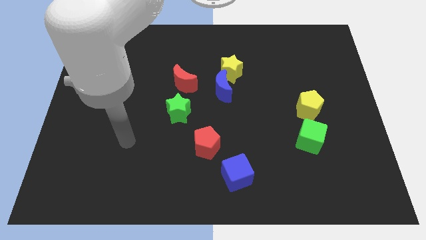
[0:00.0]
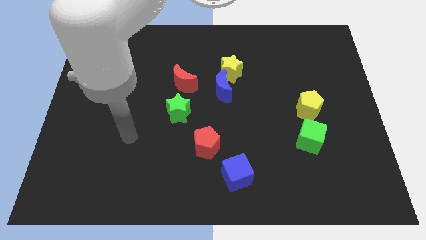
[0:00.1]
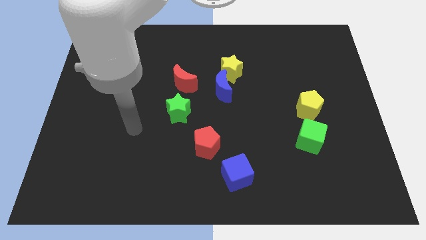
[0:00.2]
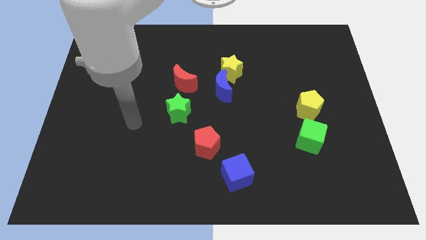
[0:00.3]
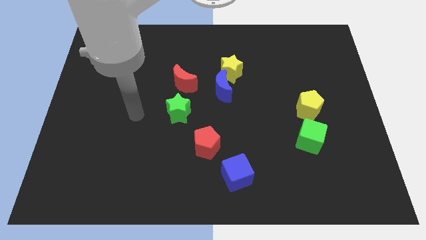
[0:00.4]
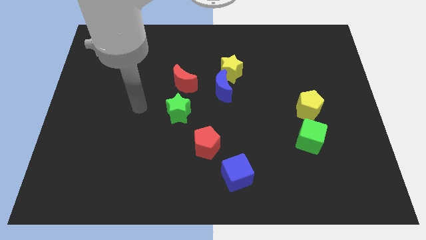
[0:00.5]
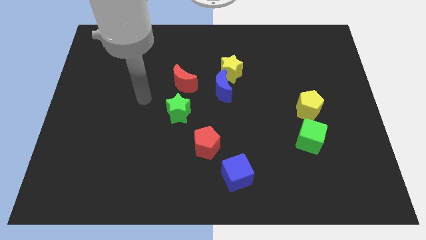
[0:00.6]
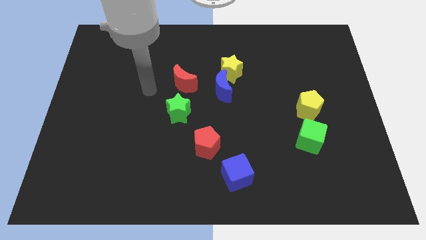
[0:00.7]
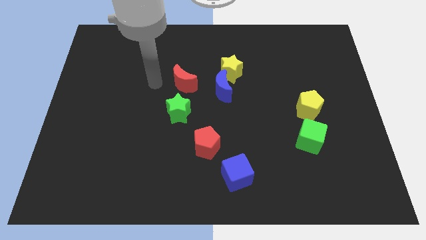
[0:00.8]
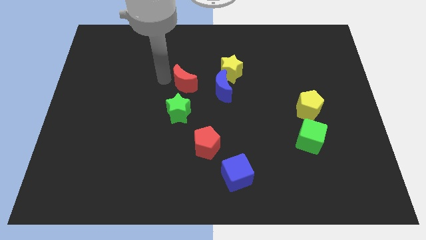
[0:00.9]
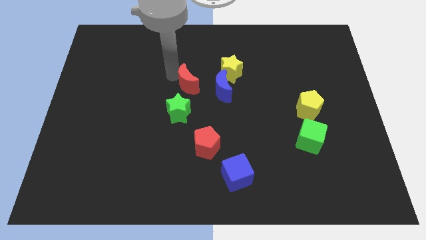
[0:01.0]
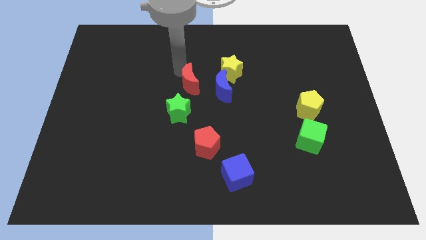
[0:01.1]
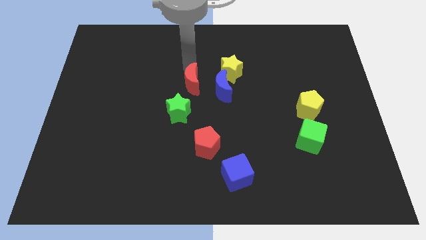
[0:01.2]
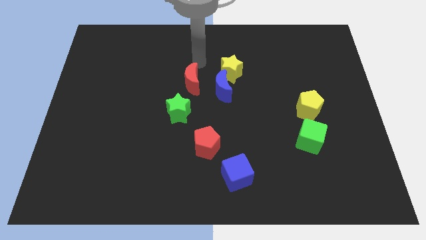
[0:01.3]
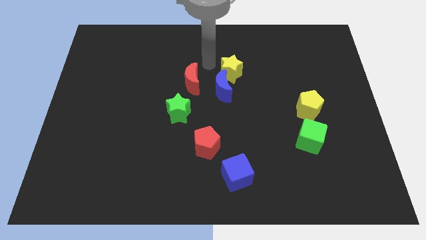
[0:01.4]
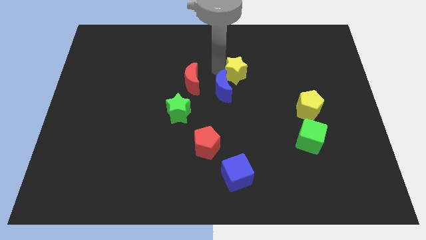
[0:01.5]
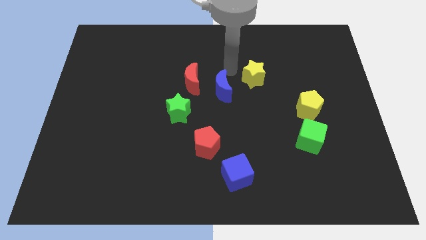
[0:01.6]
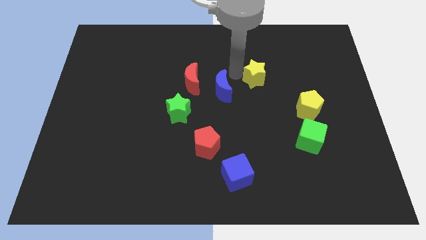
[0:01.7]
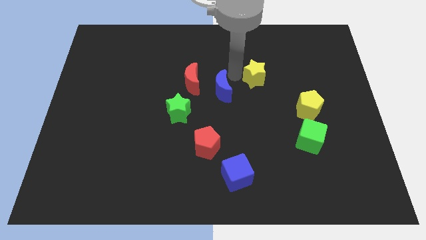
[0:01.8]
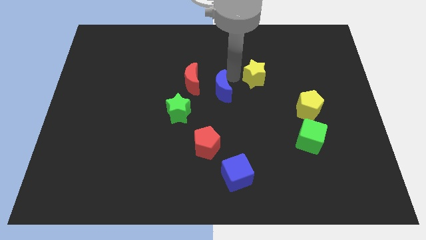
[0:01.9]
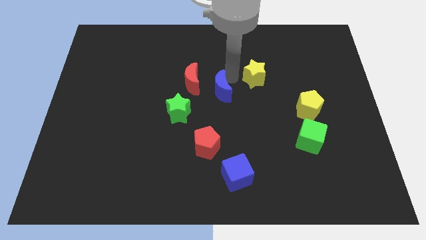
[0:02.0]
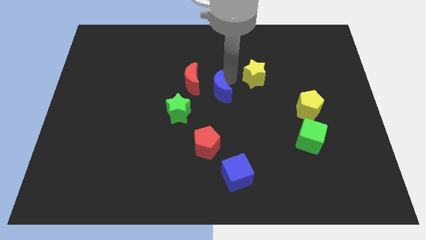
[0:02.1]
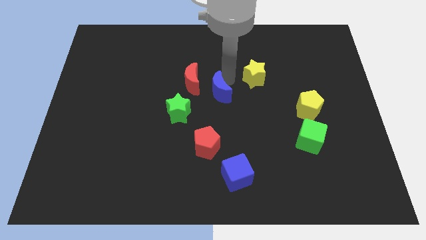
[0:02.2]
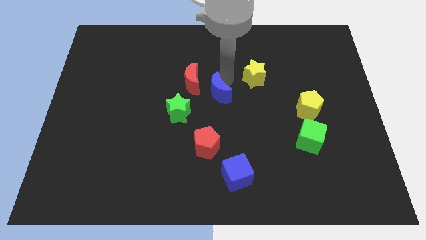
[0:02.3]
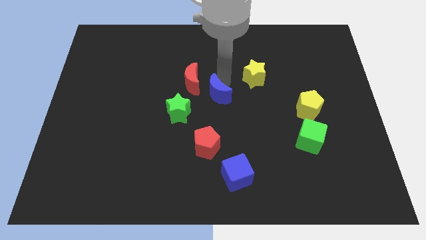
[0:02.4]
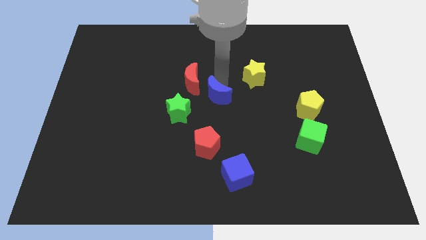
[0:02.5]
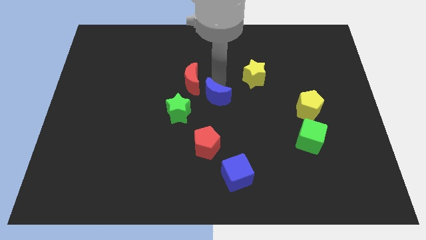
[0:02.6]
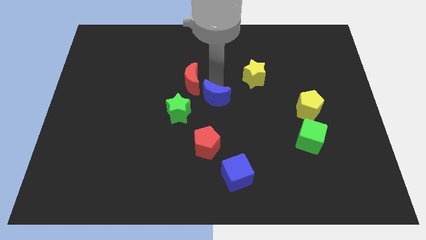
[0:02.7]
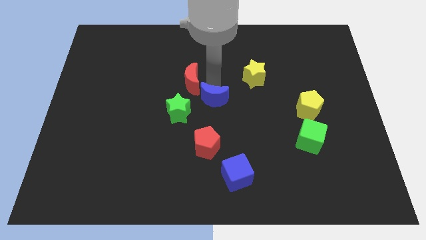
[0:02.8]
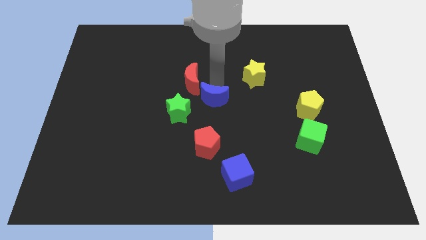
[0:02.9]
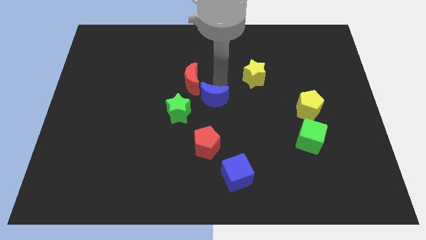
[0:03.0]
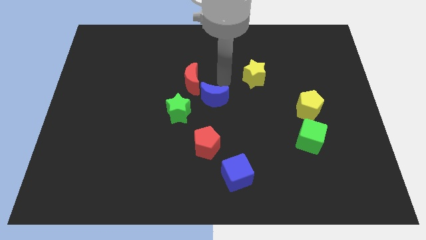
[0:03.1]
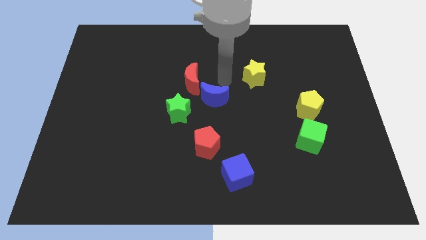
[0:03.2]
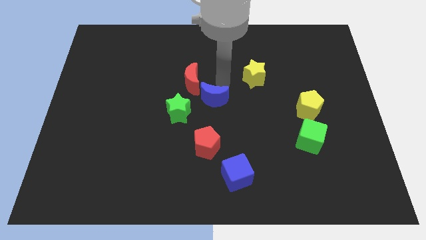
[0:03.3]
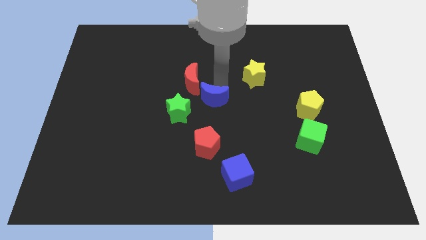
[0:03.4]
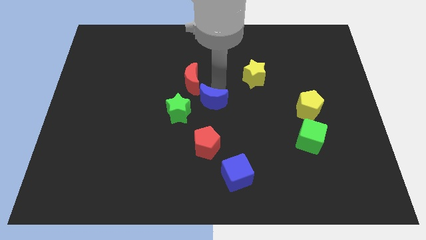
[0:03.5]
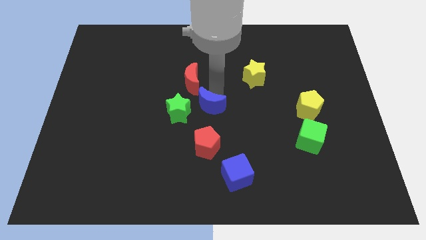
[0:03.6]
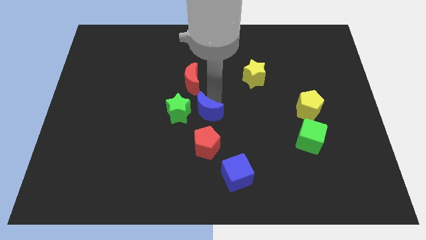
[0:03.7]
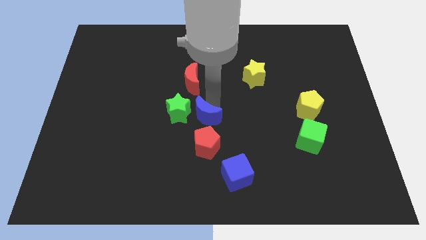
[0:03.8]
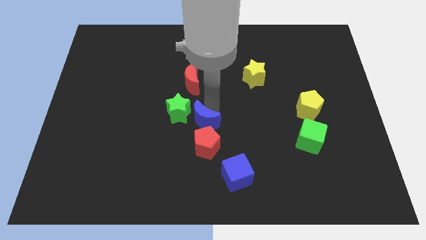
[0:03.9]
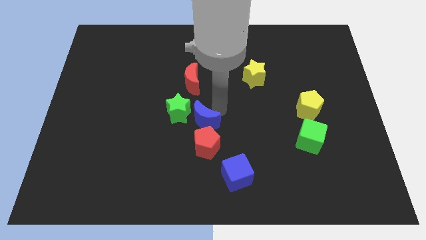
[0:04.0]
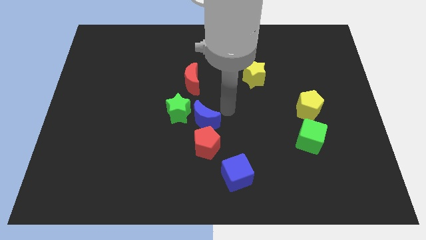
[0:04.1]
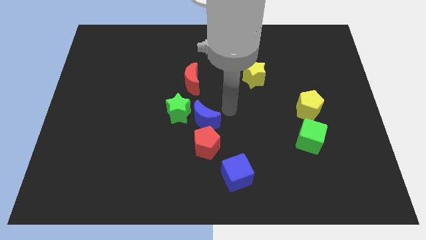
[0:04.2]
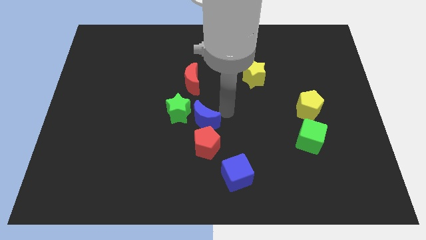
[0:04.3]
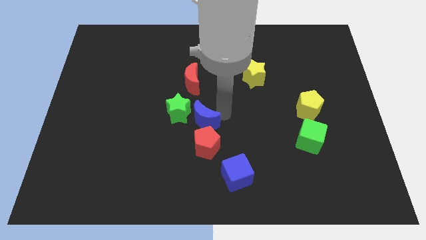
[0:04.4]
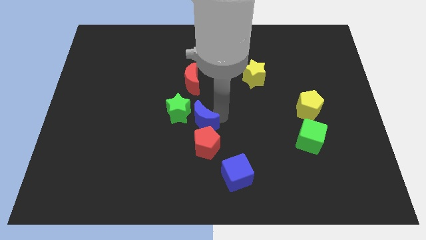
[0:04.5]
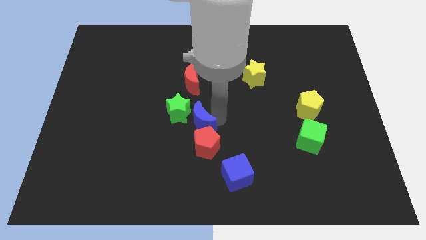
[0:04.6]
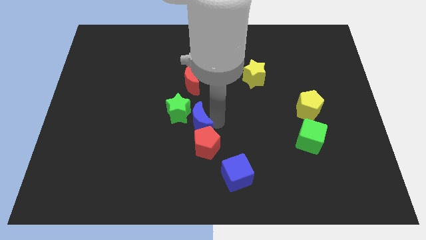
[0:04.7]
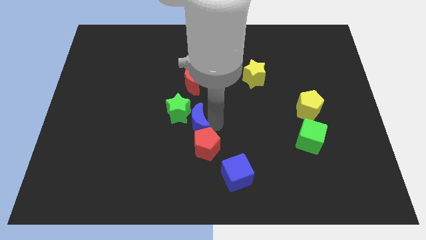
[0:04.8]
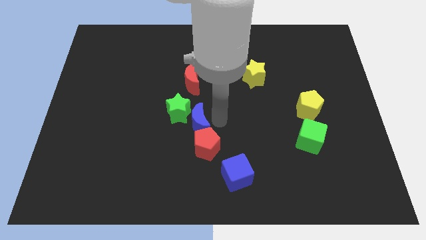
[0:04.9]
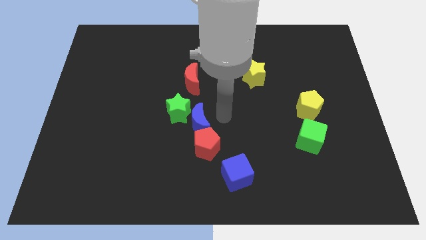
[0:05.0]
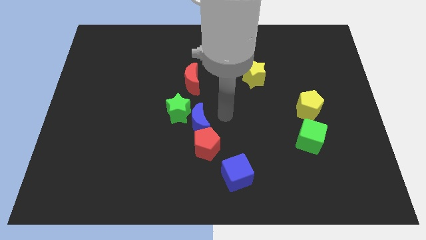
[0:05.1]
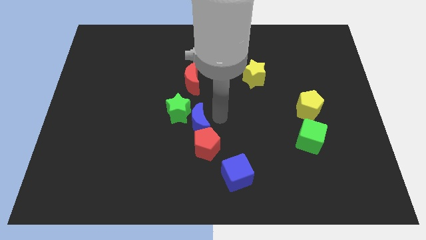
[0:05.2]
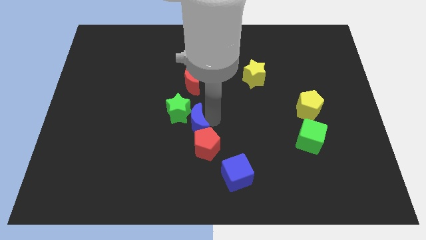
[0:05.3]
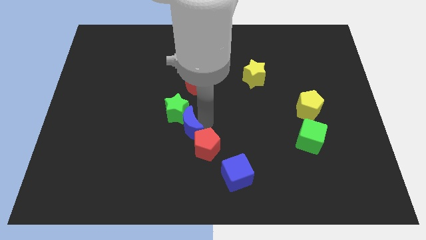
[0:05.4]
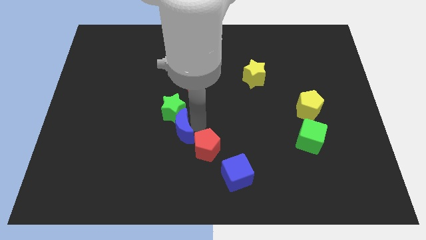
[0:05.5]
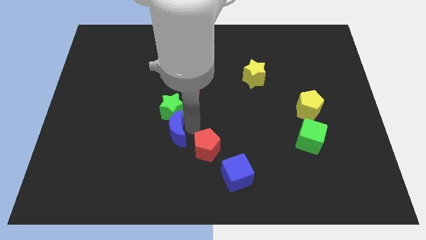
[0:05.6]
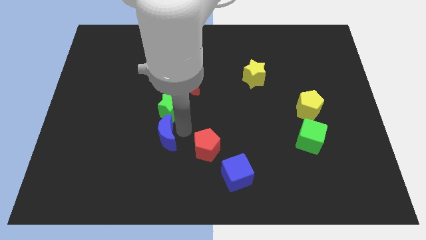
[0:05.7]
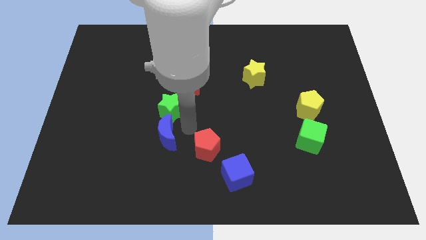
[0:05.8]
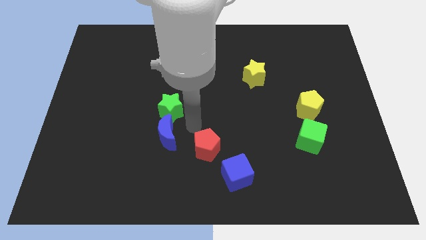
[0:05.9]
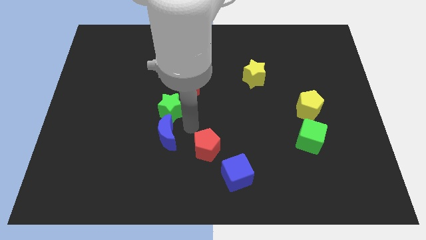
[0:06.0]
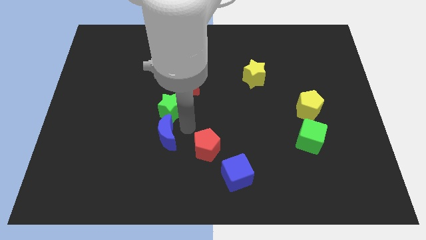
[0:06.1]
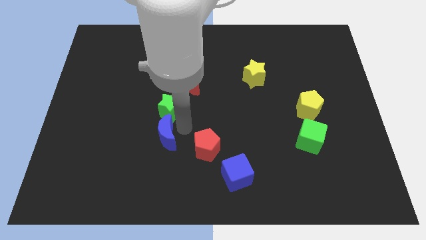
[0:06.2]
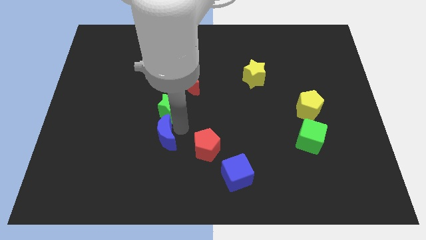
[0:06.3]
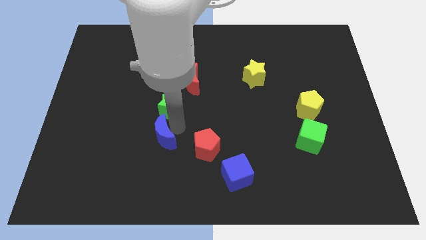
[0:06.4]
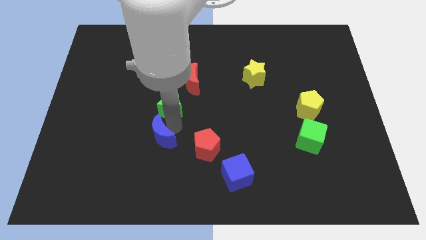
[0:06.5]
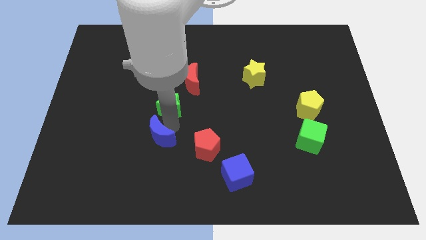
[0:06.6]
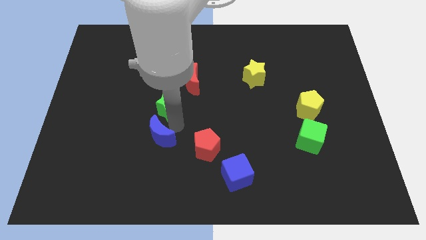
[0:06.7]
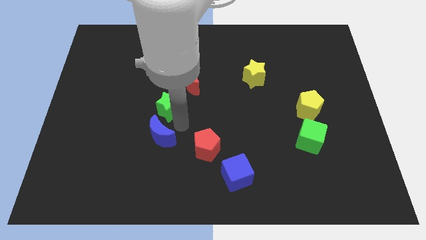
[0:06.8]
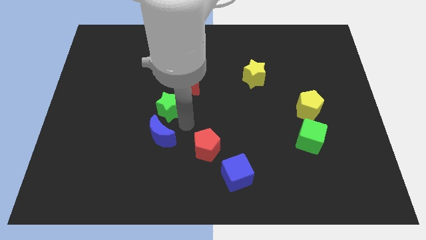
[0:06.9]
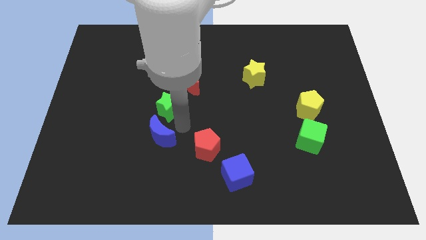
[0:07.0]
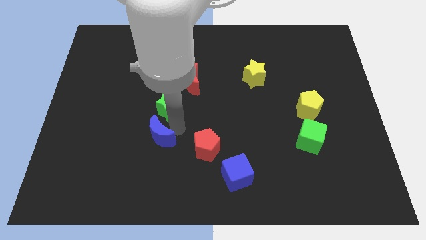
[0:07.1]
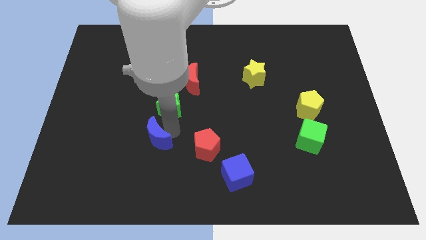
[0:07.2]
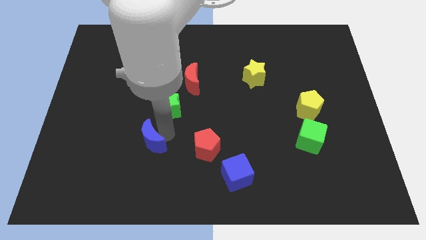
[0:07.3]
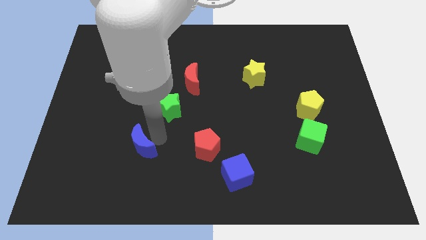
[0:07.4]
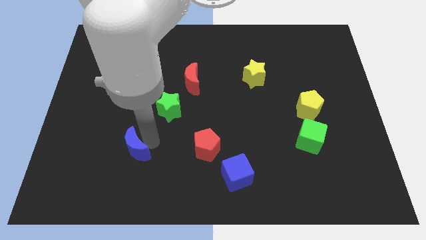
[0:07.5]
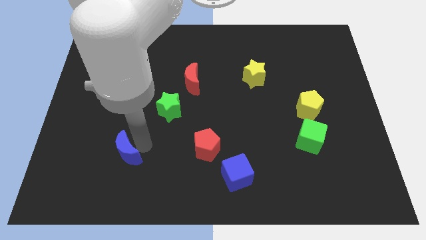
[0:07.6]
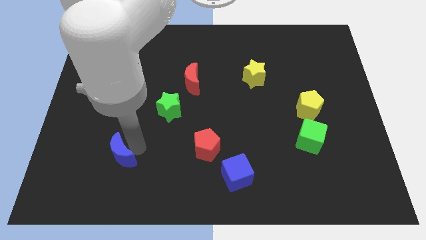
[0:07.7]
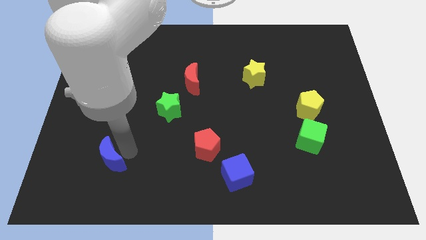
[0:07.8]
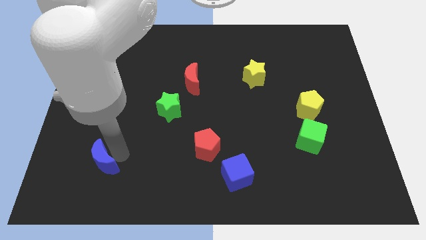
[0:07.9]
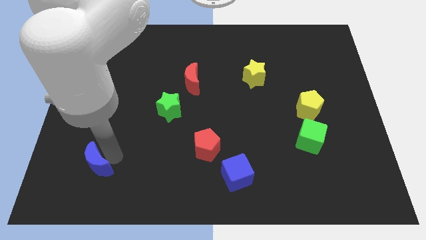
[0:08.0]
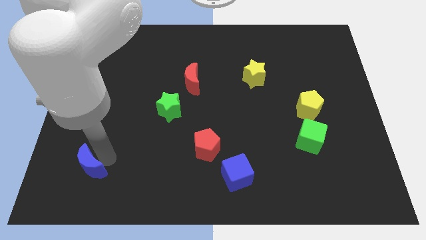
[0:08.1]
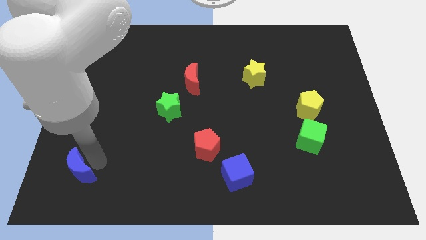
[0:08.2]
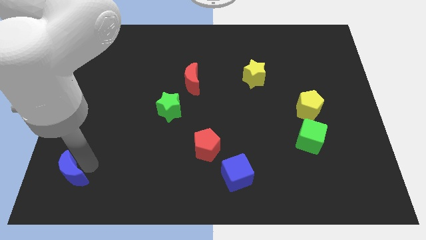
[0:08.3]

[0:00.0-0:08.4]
slide the blue moon to the bottom left of the board
